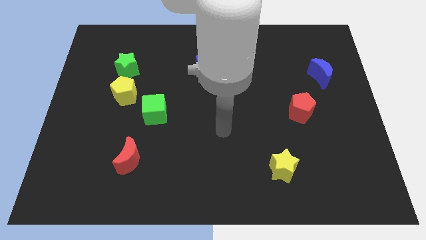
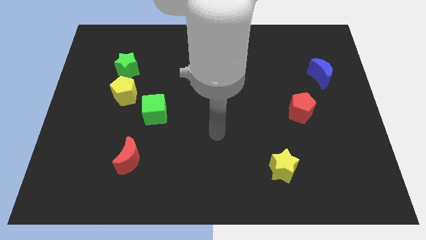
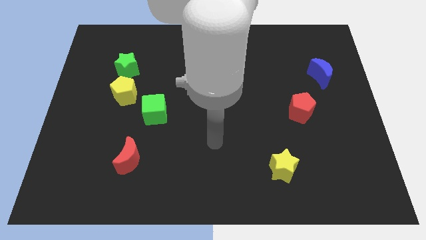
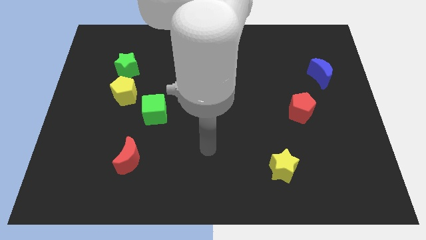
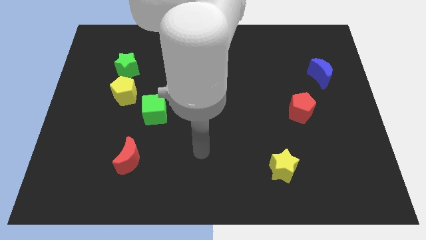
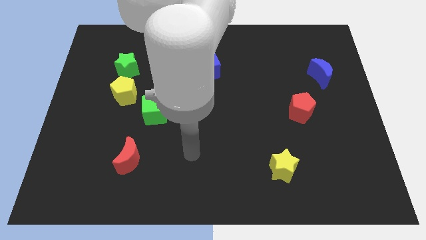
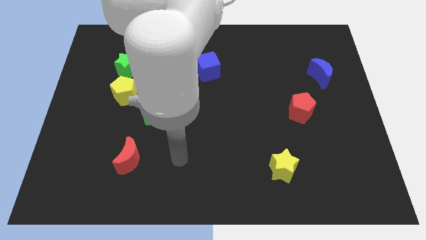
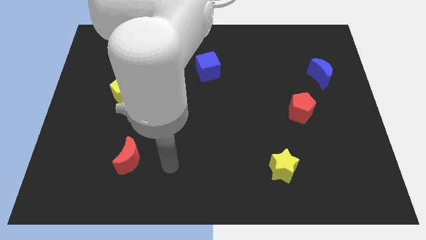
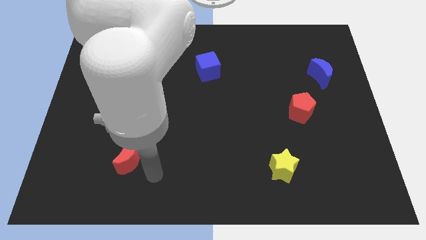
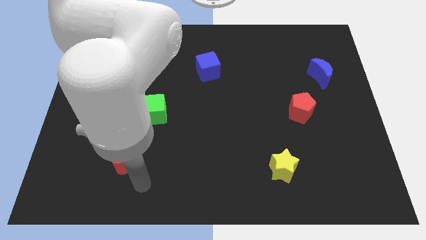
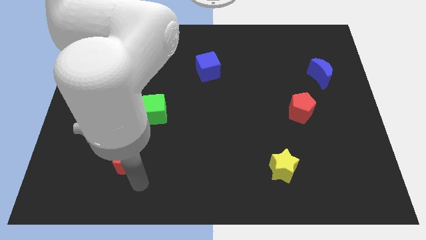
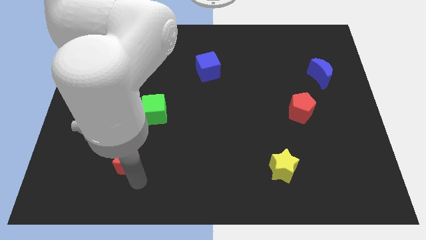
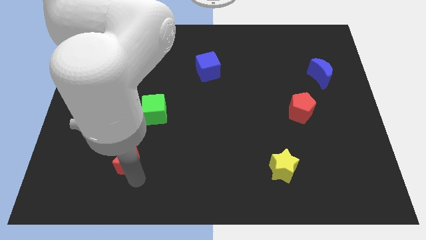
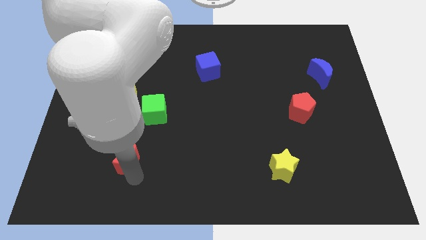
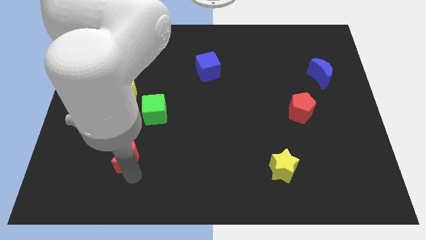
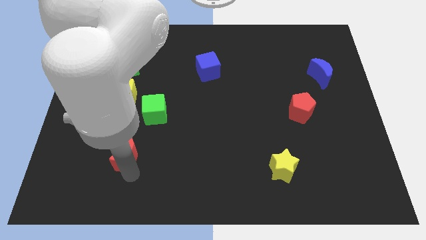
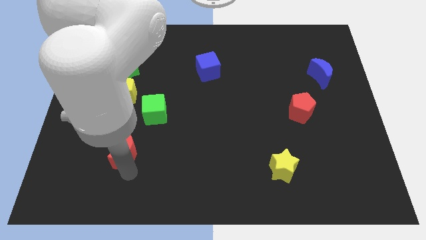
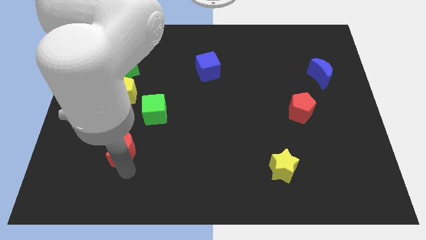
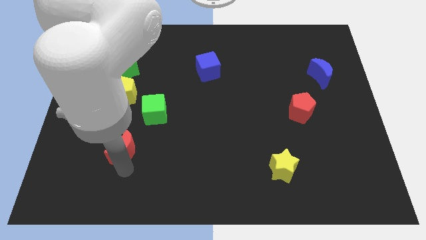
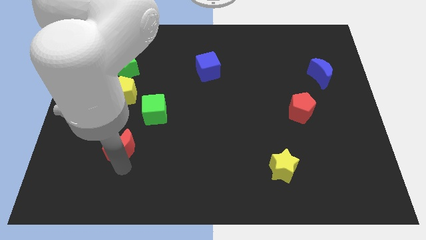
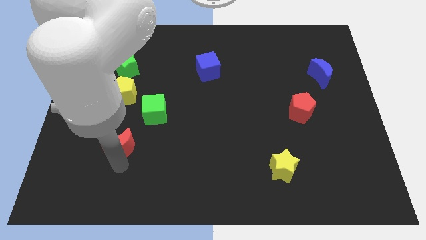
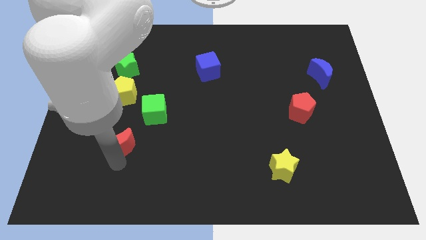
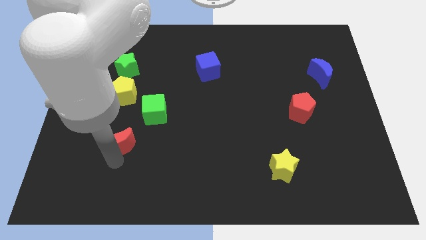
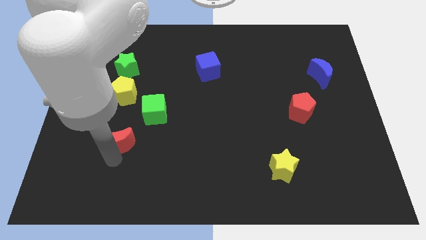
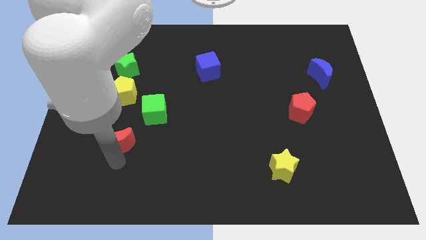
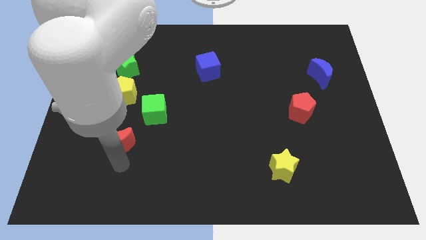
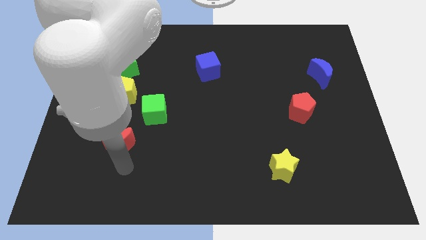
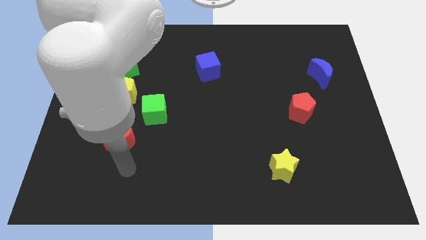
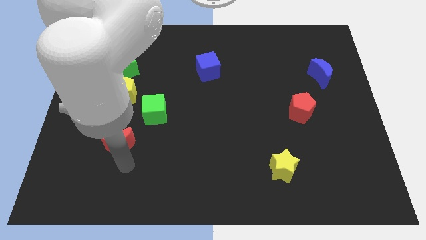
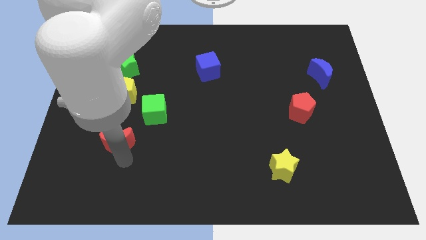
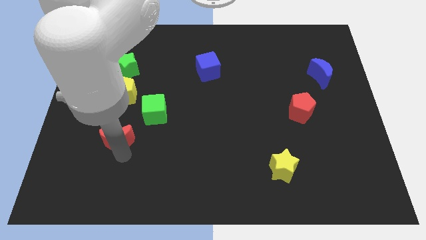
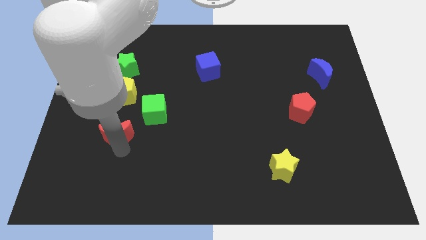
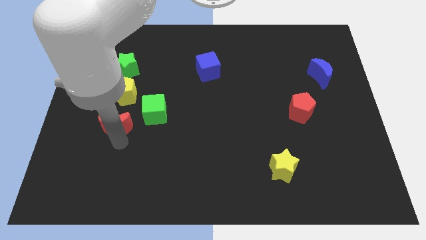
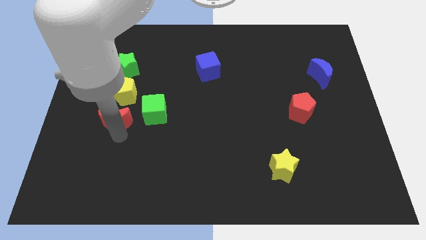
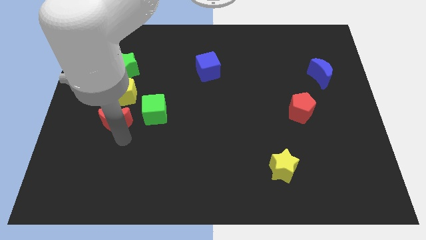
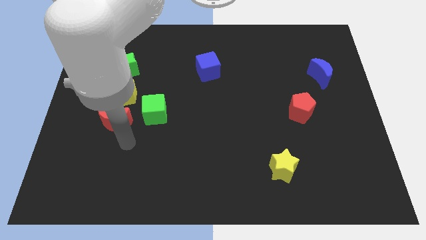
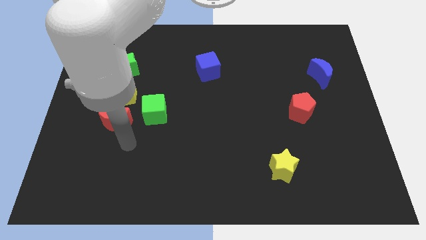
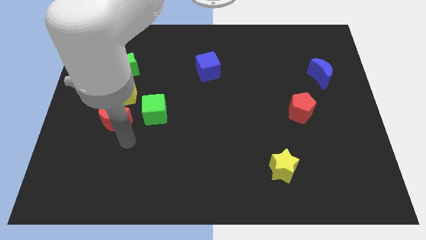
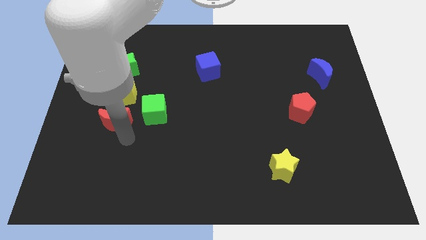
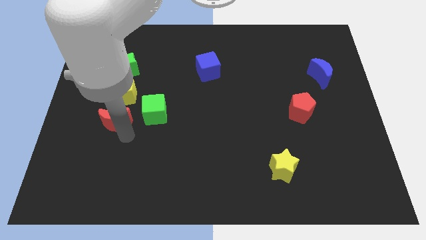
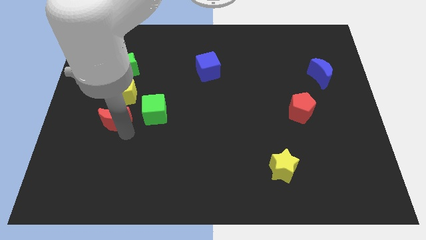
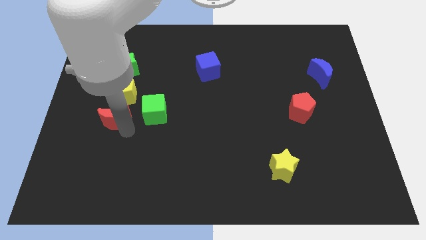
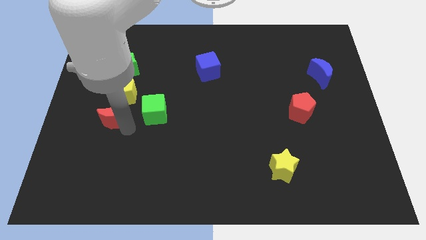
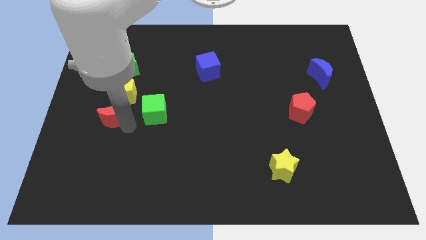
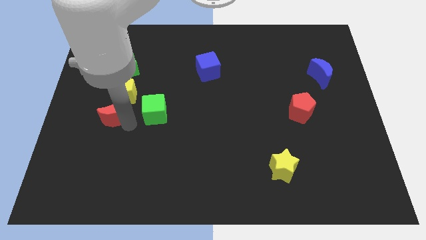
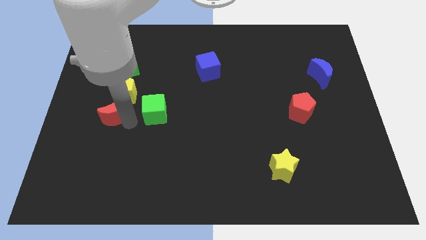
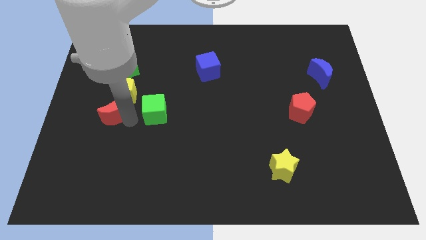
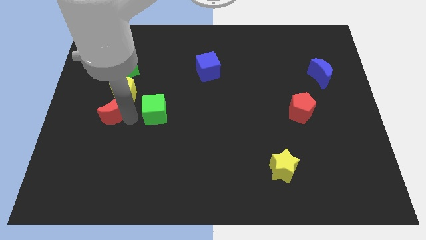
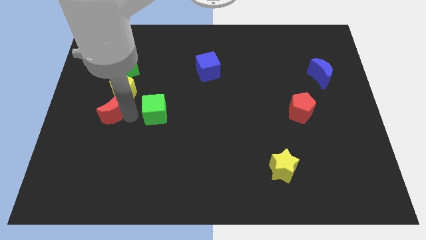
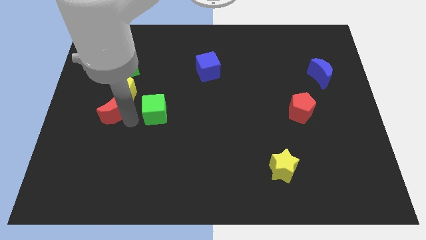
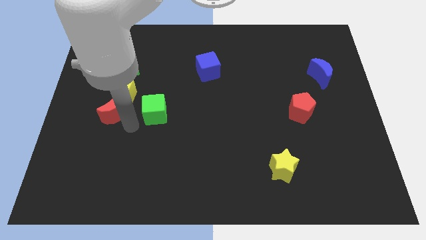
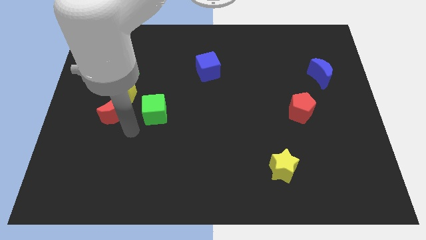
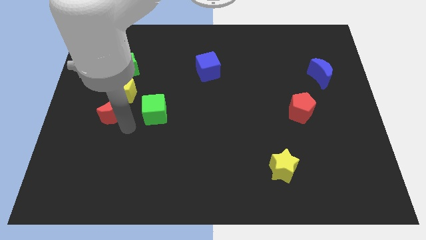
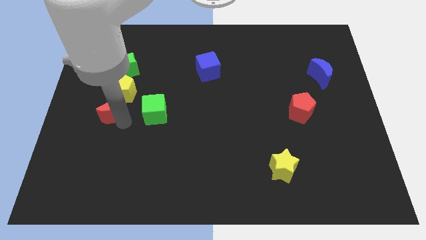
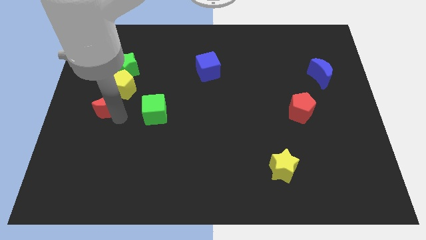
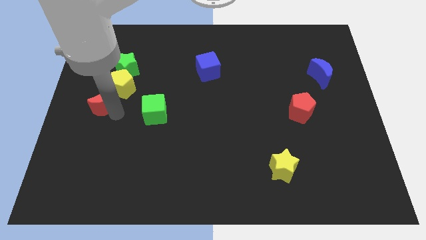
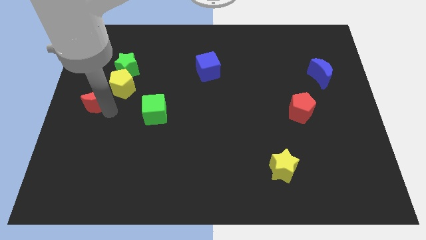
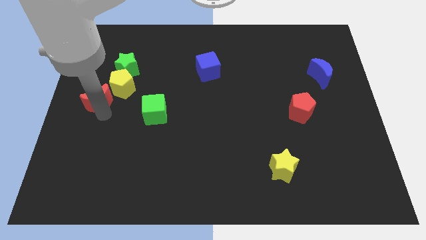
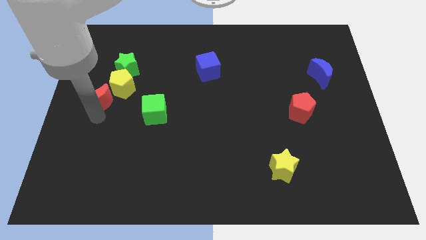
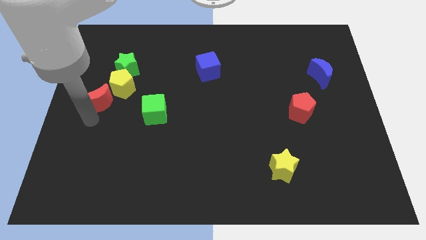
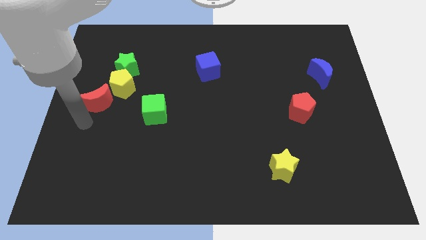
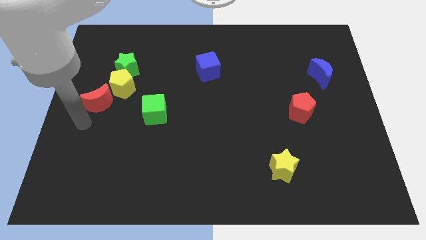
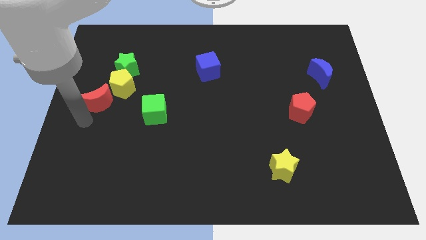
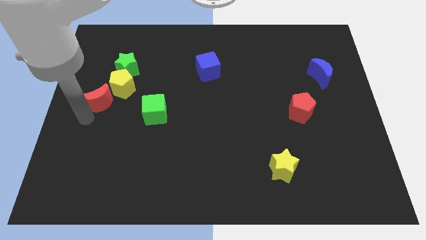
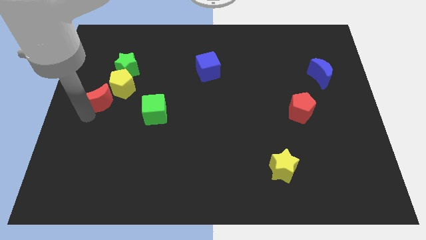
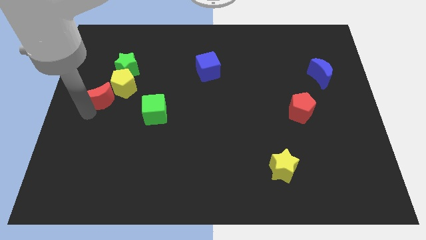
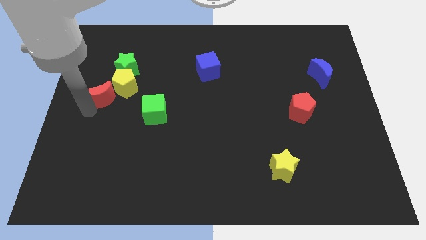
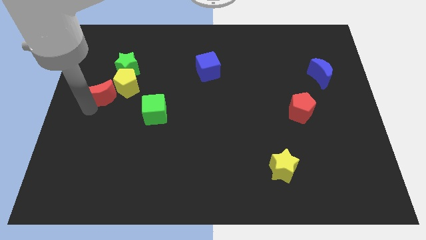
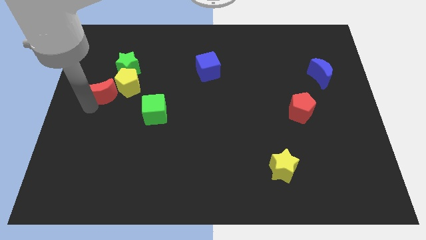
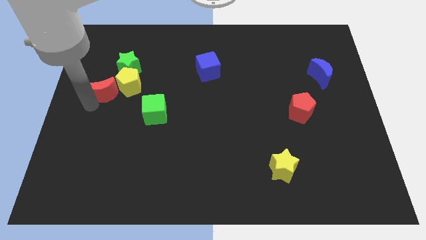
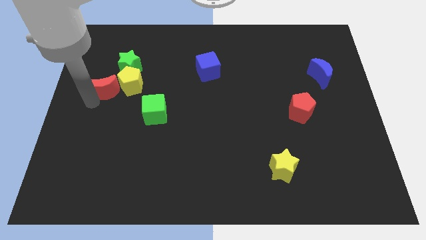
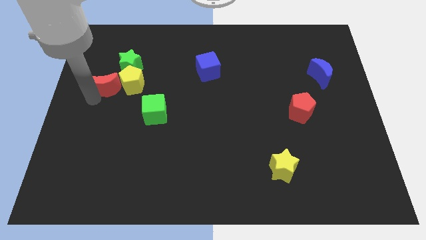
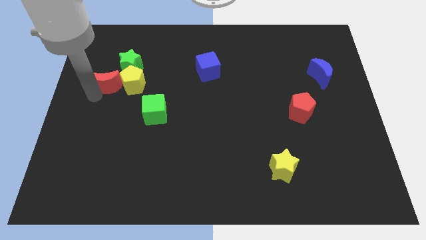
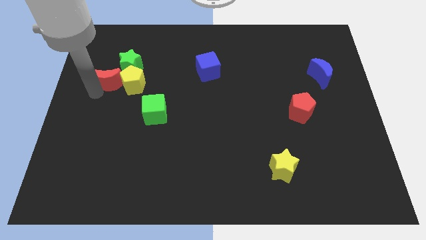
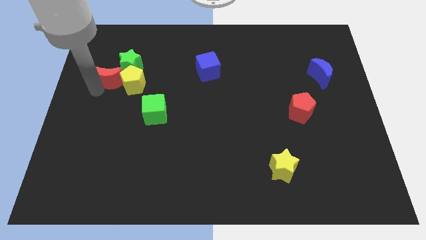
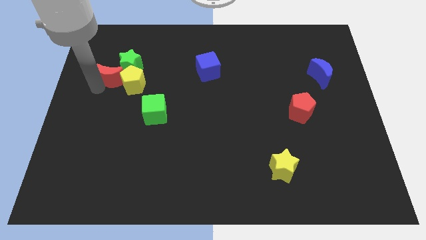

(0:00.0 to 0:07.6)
put the red moon towards the green star
